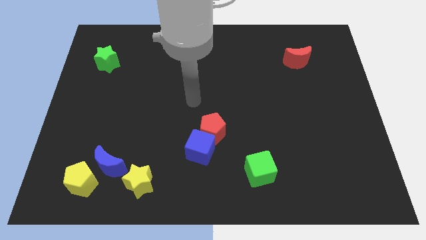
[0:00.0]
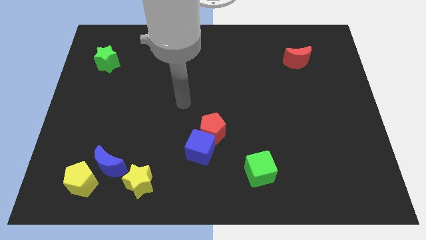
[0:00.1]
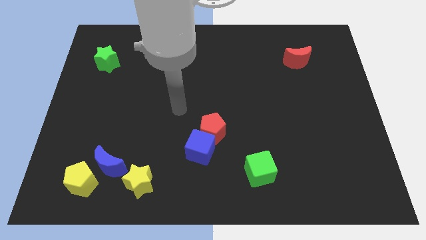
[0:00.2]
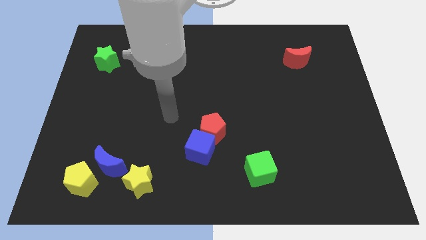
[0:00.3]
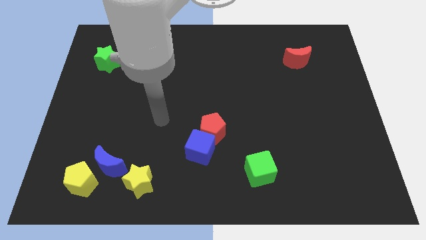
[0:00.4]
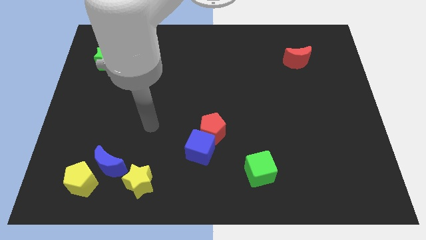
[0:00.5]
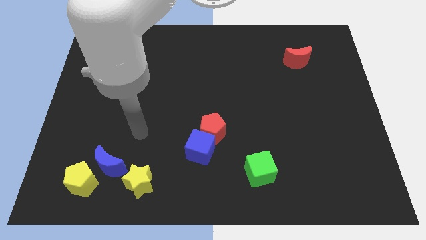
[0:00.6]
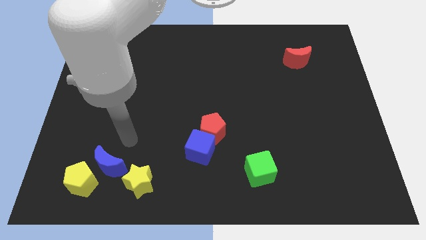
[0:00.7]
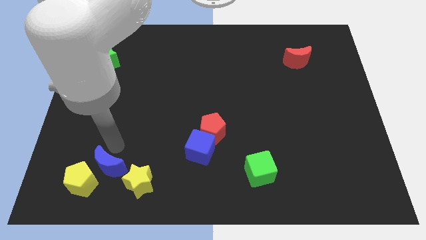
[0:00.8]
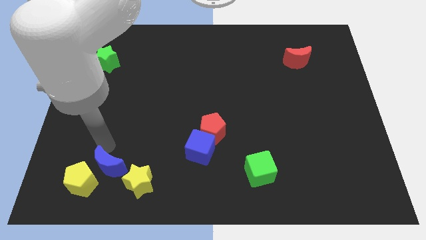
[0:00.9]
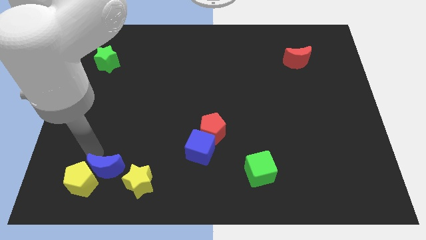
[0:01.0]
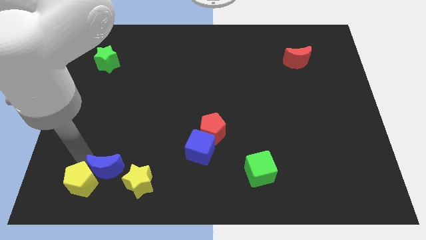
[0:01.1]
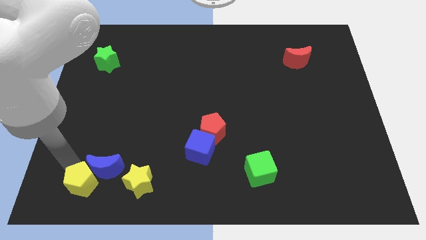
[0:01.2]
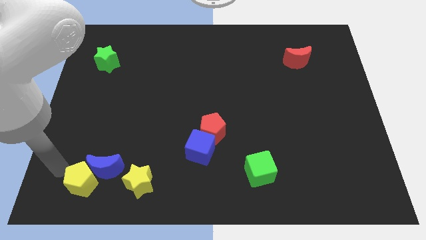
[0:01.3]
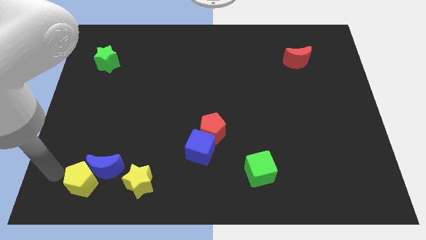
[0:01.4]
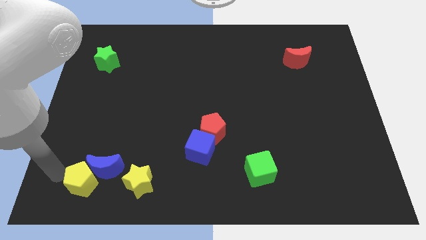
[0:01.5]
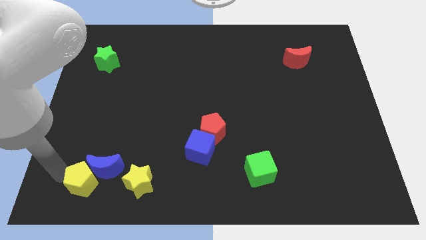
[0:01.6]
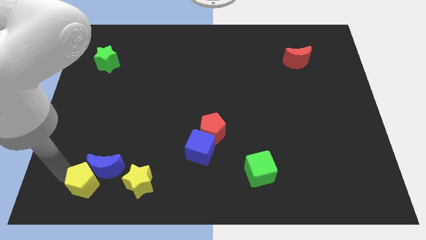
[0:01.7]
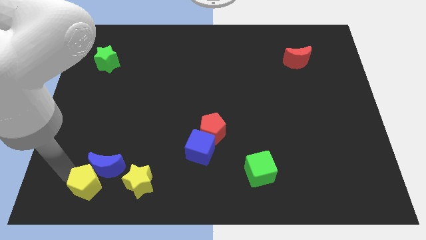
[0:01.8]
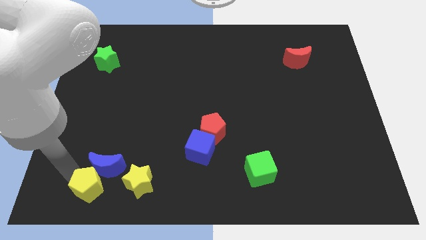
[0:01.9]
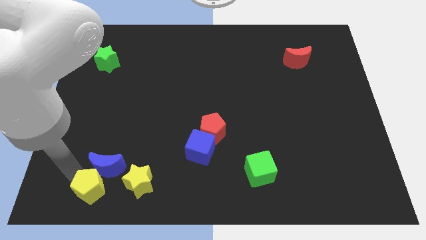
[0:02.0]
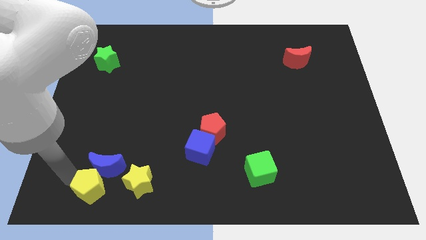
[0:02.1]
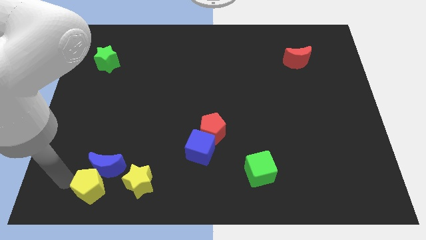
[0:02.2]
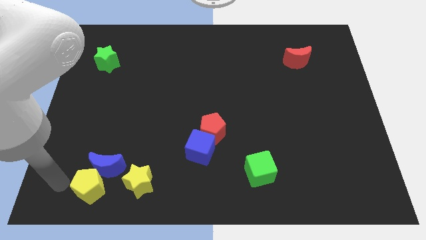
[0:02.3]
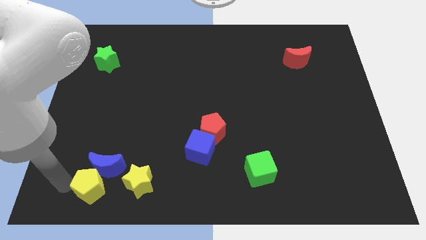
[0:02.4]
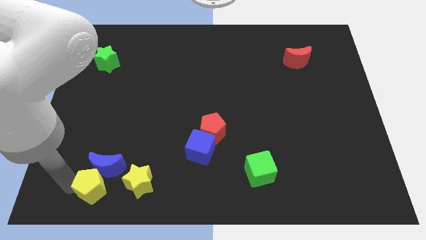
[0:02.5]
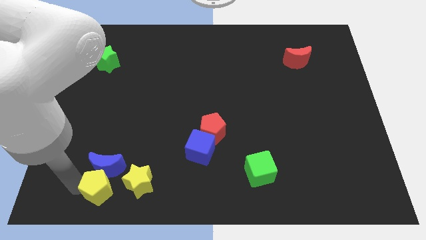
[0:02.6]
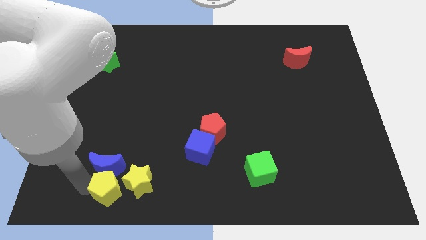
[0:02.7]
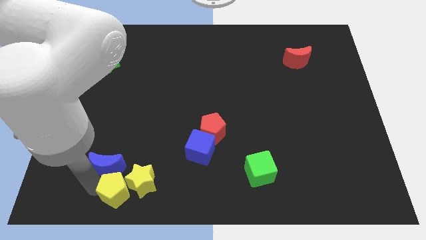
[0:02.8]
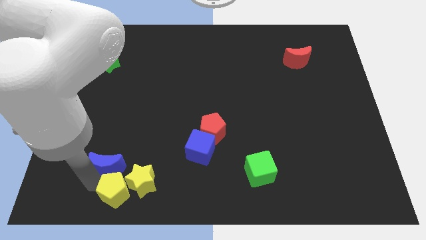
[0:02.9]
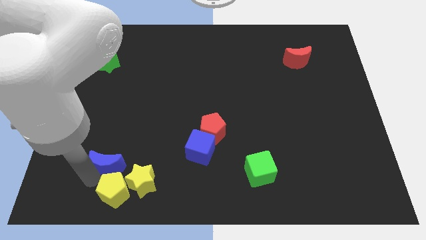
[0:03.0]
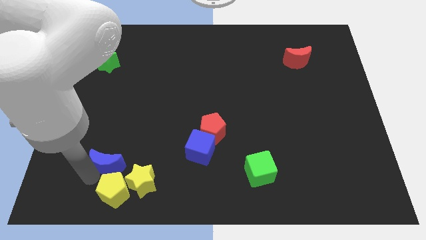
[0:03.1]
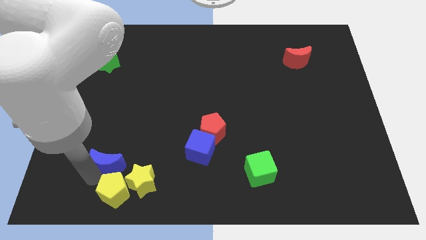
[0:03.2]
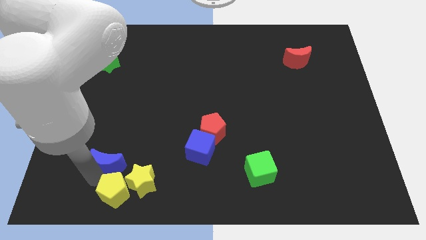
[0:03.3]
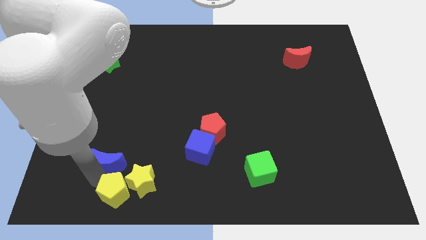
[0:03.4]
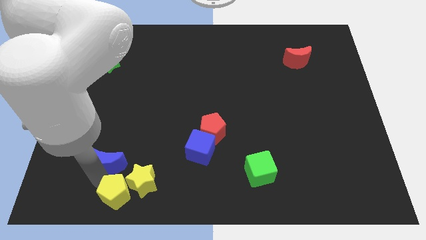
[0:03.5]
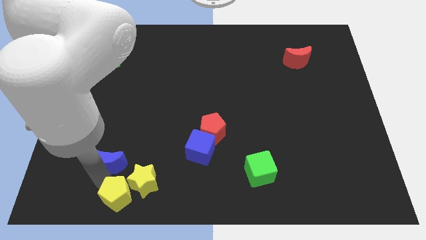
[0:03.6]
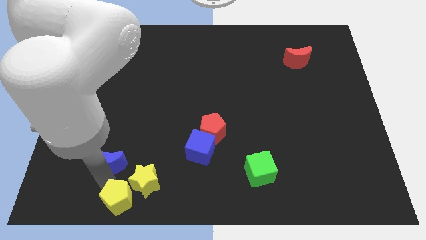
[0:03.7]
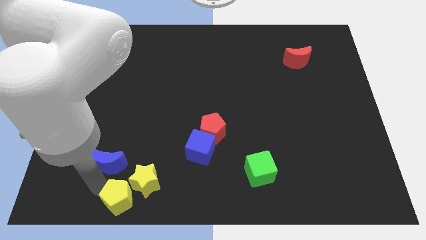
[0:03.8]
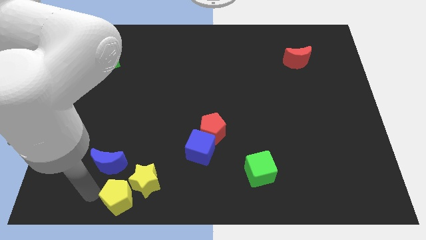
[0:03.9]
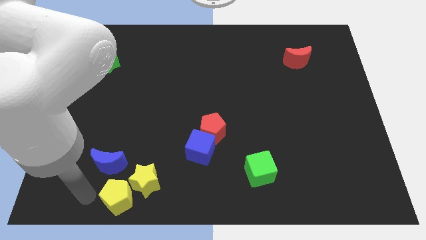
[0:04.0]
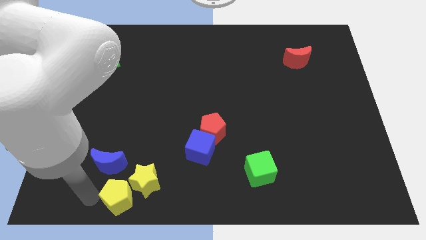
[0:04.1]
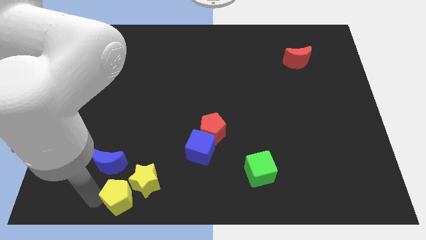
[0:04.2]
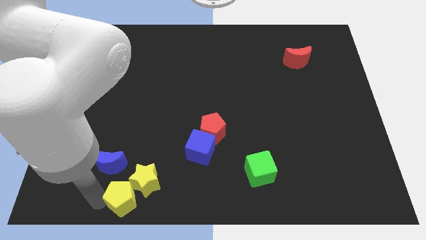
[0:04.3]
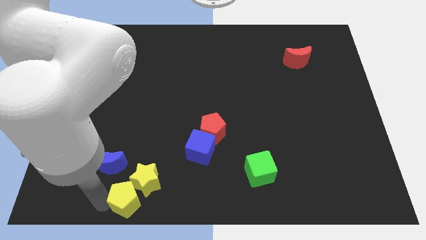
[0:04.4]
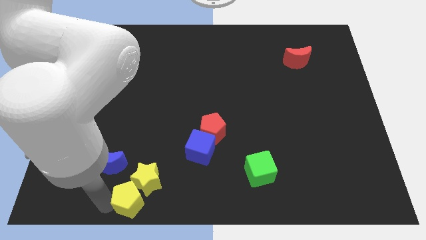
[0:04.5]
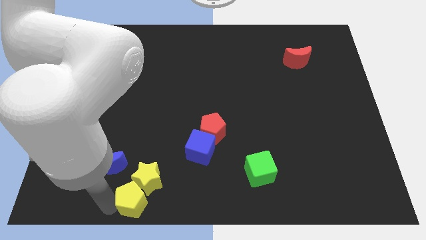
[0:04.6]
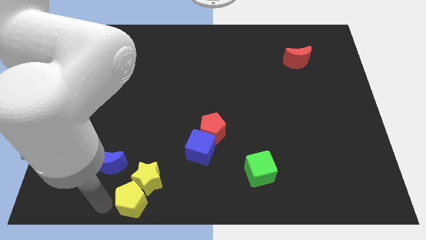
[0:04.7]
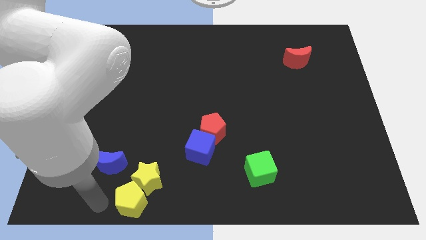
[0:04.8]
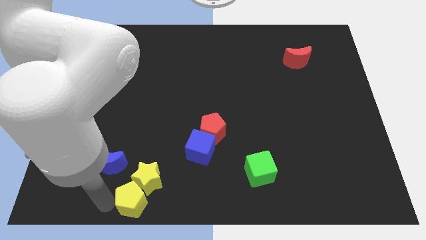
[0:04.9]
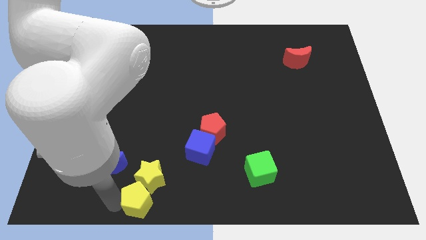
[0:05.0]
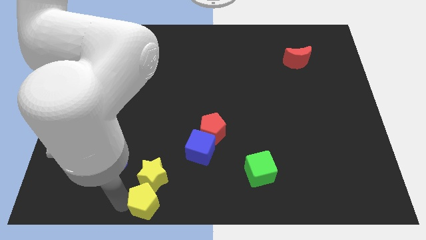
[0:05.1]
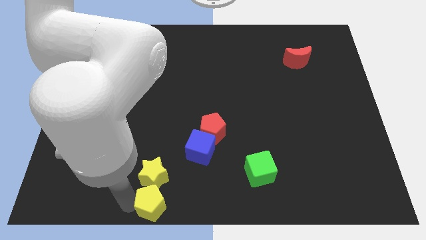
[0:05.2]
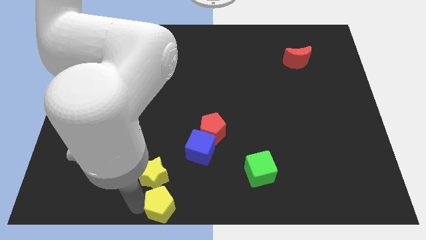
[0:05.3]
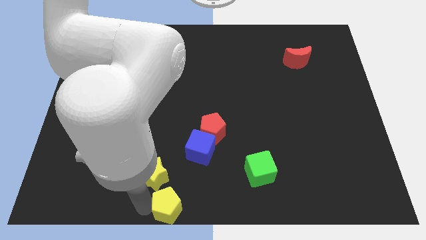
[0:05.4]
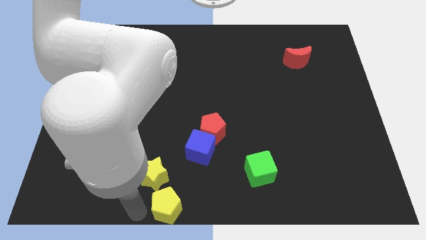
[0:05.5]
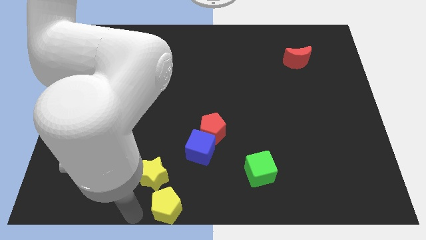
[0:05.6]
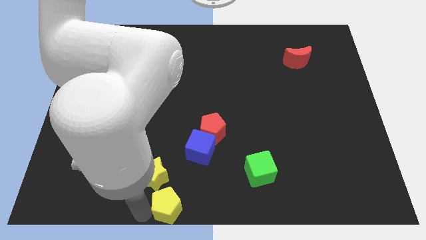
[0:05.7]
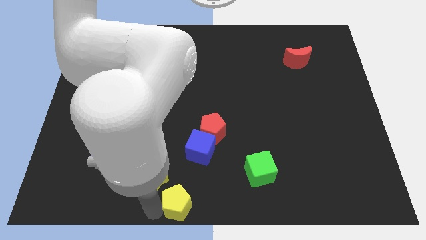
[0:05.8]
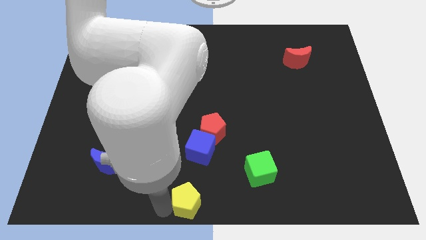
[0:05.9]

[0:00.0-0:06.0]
slide the yellow pentagon to the right

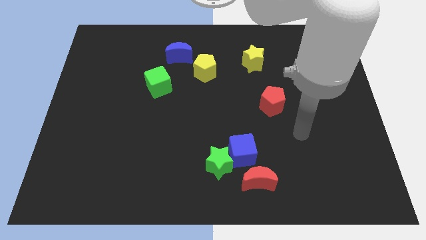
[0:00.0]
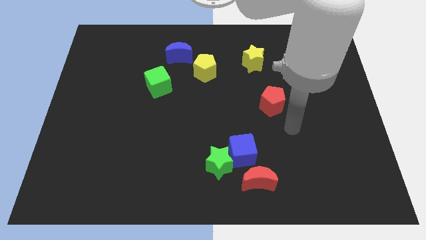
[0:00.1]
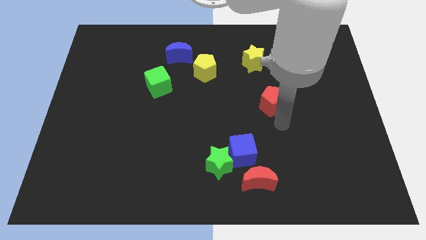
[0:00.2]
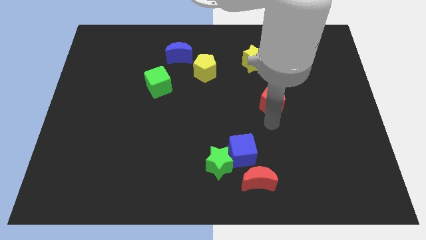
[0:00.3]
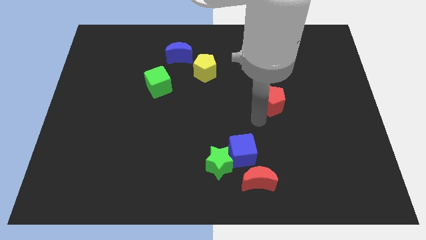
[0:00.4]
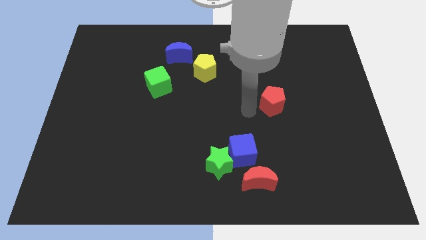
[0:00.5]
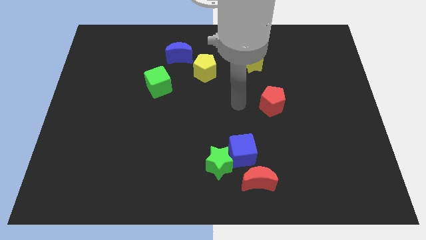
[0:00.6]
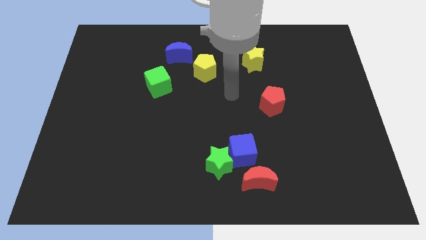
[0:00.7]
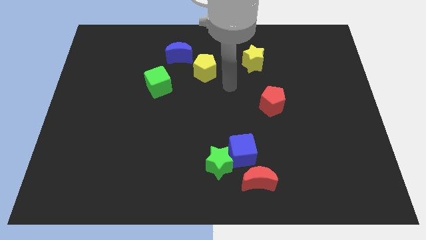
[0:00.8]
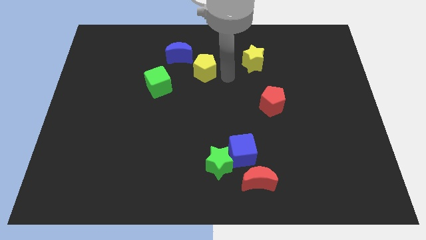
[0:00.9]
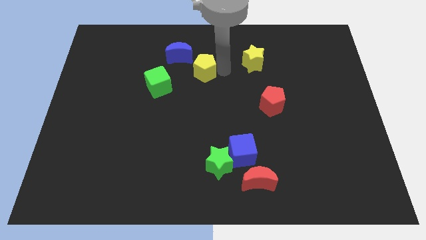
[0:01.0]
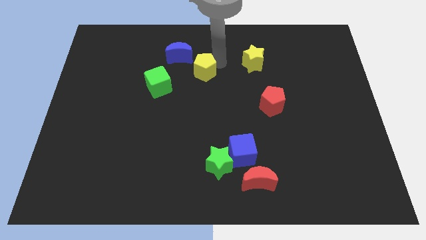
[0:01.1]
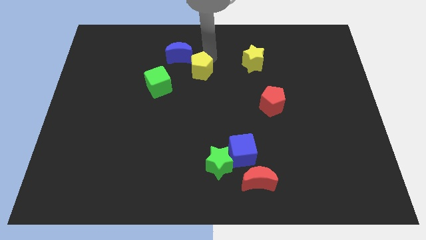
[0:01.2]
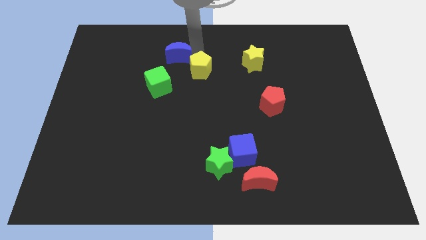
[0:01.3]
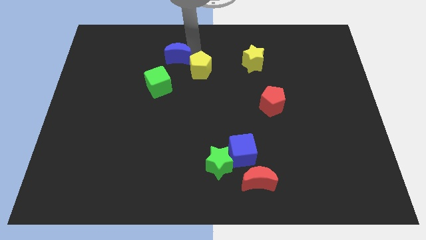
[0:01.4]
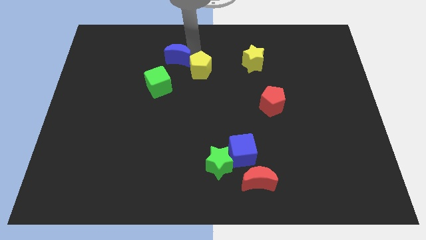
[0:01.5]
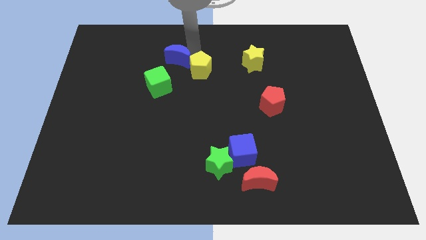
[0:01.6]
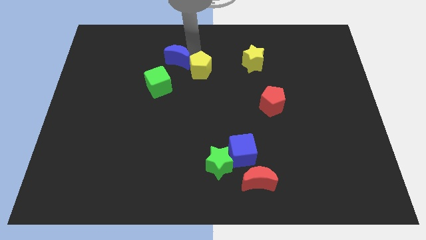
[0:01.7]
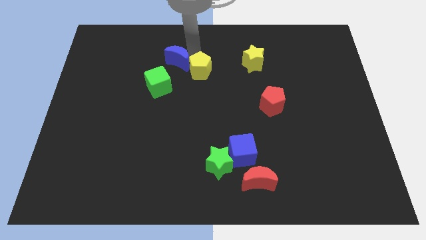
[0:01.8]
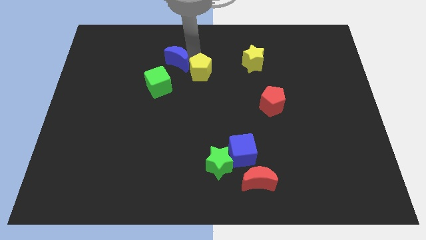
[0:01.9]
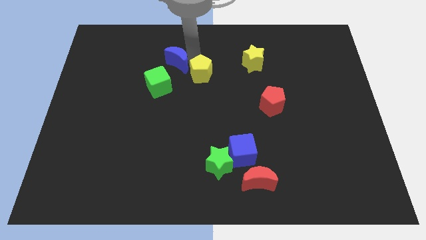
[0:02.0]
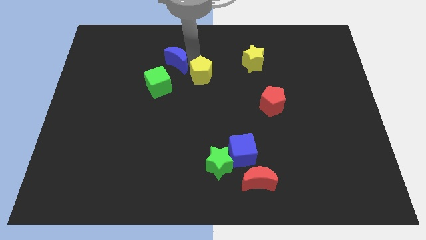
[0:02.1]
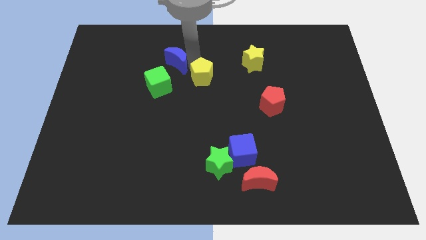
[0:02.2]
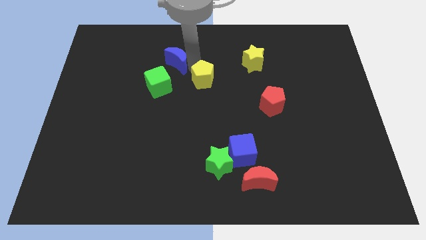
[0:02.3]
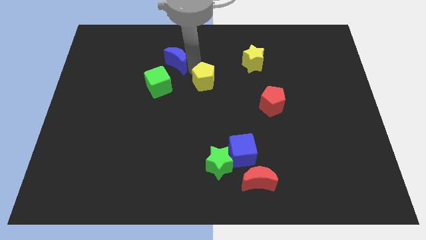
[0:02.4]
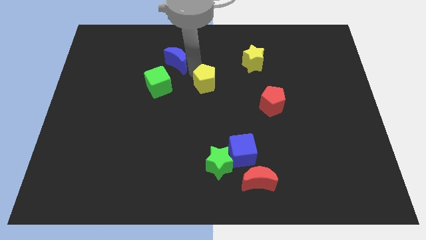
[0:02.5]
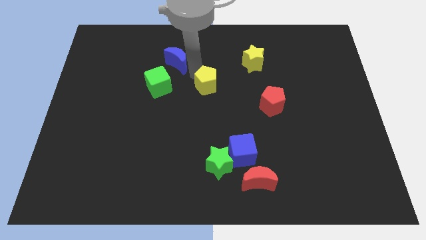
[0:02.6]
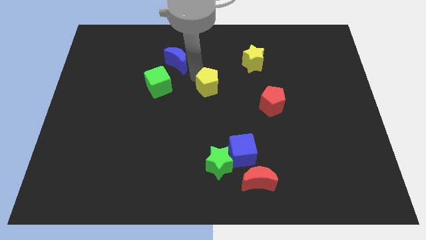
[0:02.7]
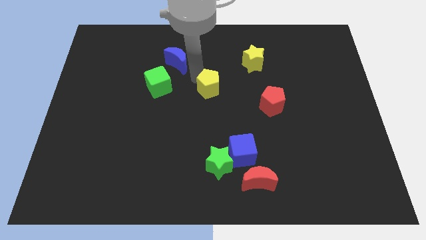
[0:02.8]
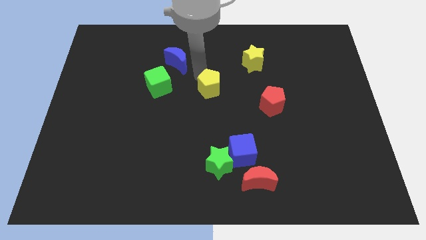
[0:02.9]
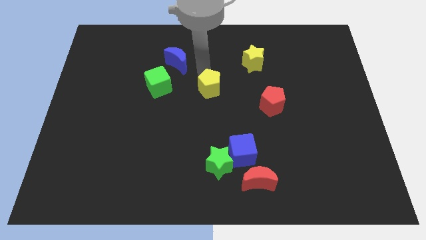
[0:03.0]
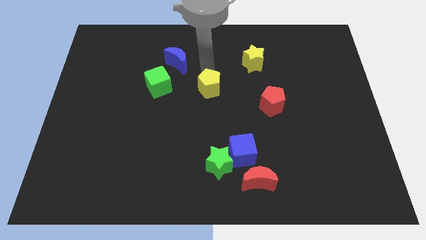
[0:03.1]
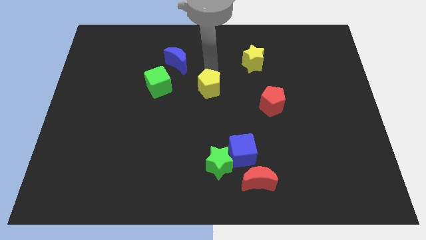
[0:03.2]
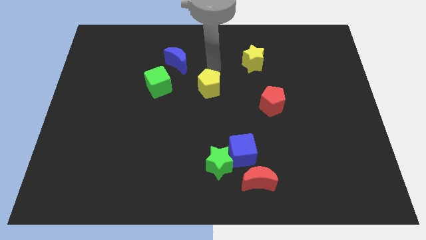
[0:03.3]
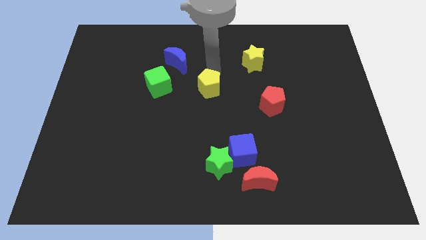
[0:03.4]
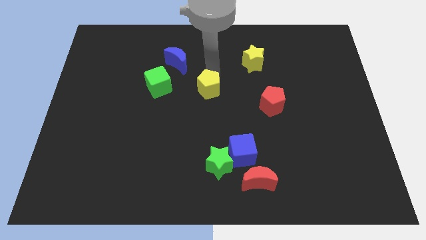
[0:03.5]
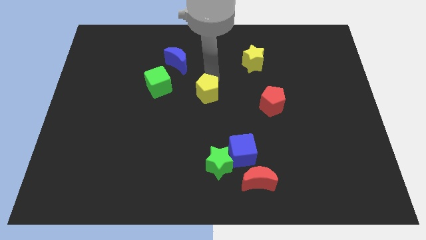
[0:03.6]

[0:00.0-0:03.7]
slightly move the yellow pentagon downwards
